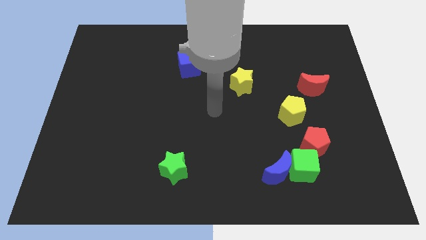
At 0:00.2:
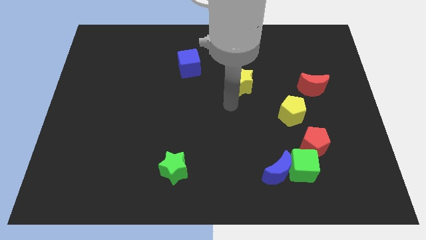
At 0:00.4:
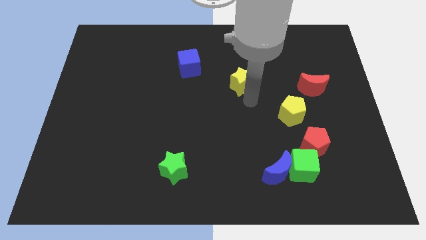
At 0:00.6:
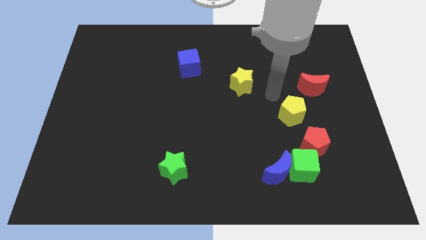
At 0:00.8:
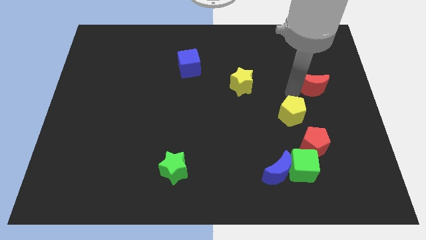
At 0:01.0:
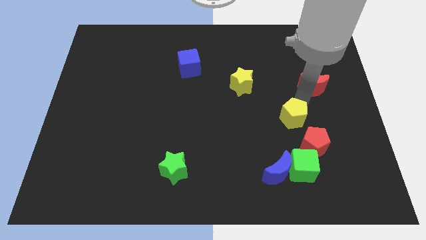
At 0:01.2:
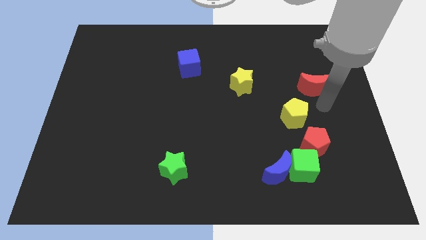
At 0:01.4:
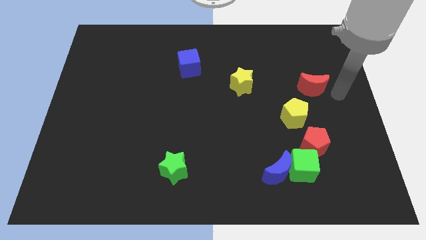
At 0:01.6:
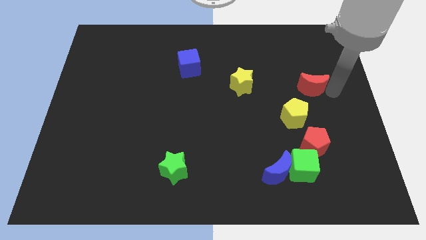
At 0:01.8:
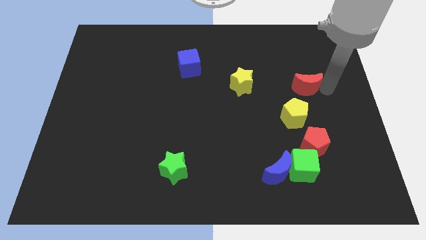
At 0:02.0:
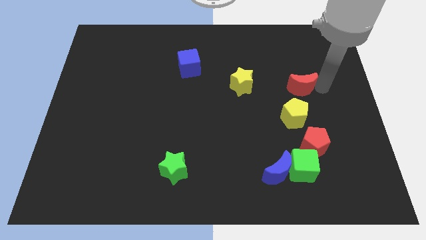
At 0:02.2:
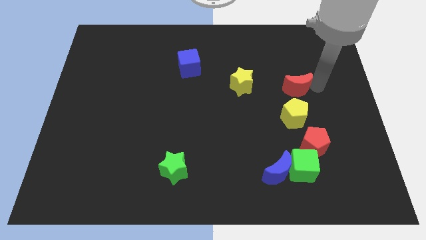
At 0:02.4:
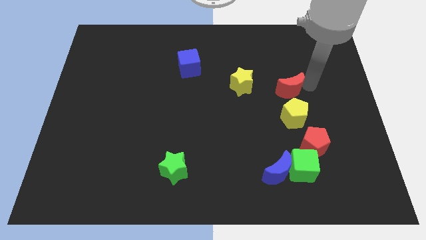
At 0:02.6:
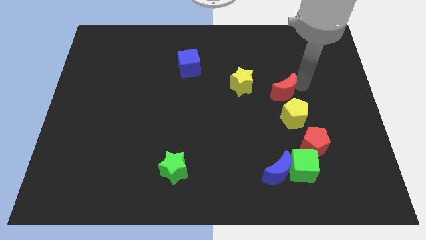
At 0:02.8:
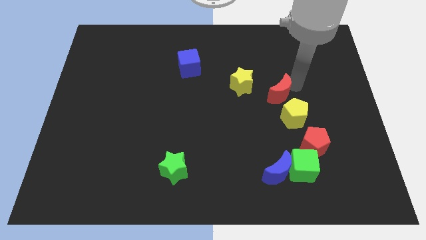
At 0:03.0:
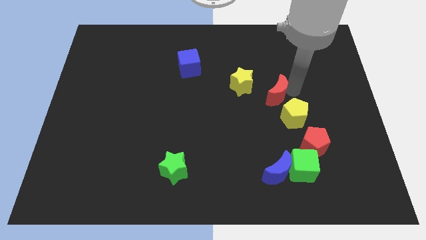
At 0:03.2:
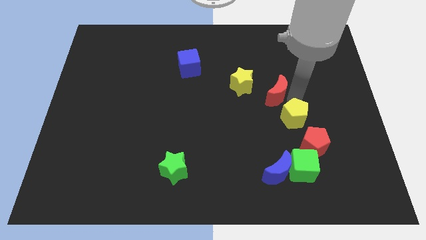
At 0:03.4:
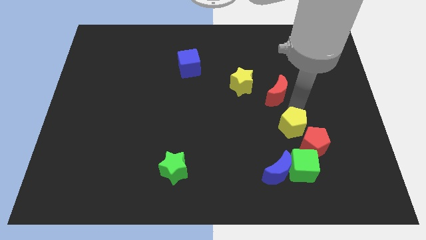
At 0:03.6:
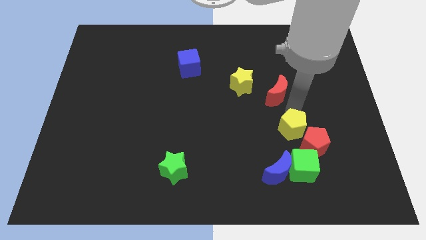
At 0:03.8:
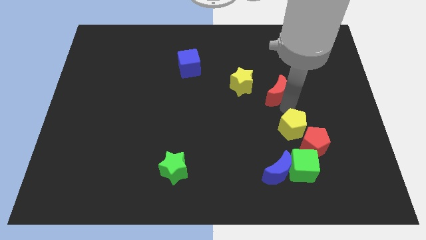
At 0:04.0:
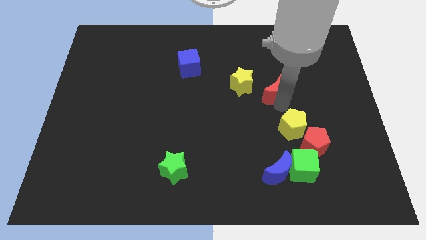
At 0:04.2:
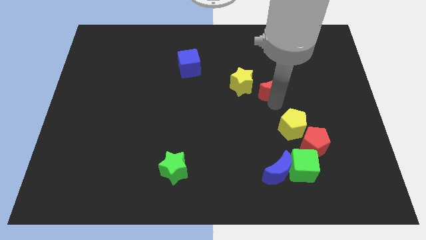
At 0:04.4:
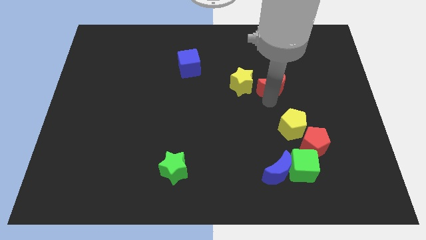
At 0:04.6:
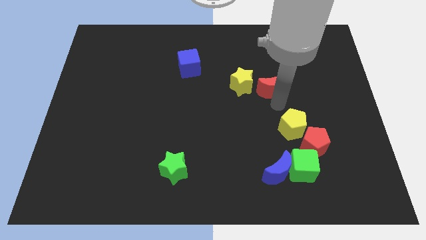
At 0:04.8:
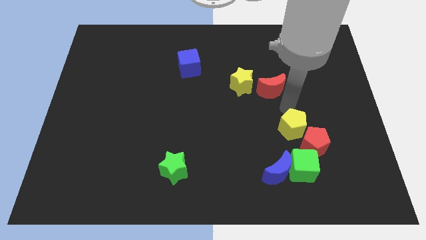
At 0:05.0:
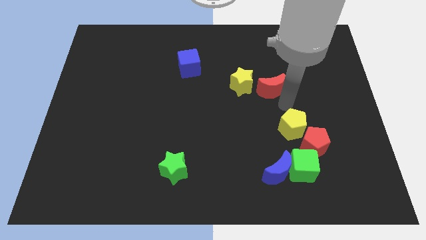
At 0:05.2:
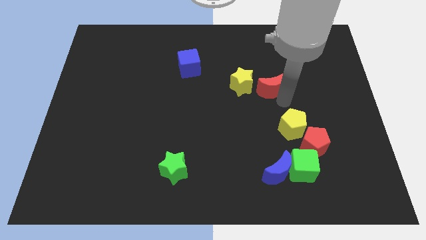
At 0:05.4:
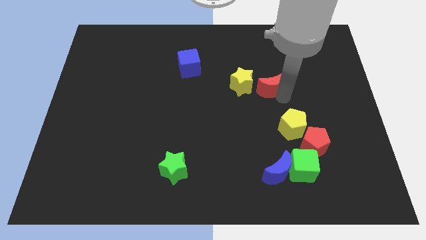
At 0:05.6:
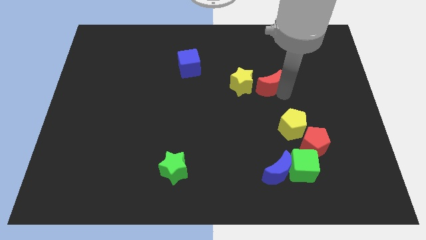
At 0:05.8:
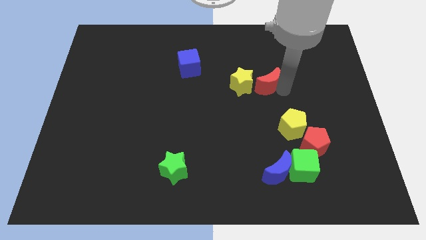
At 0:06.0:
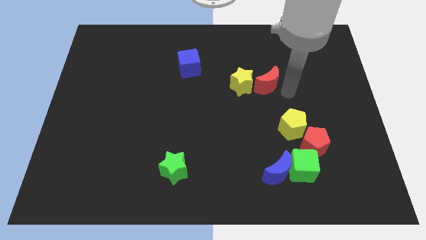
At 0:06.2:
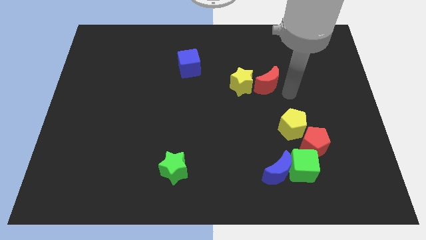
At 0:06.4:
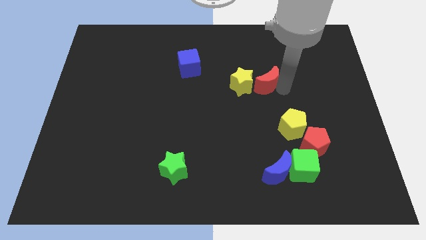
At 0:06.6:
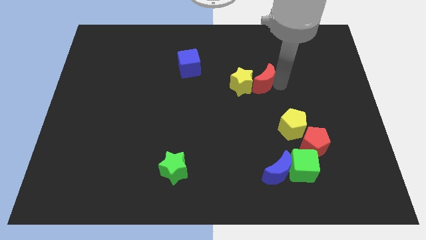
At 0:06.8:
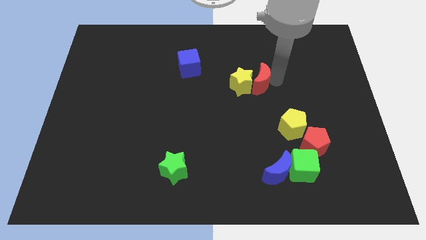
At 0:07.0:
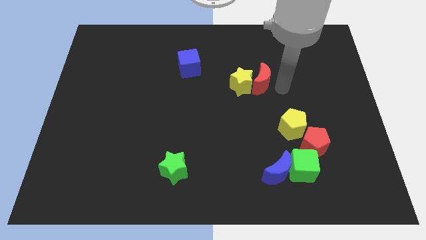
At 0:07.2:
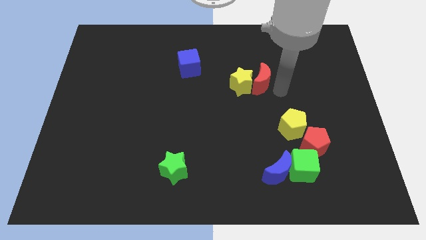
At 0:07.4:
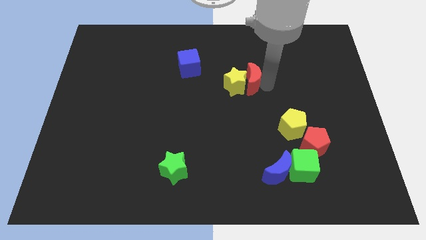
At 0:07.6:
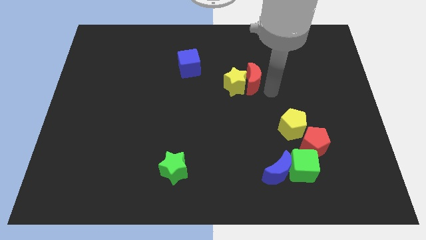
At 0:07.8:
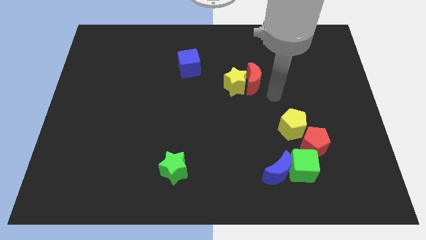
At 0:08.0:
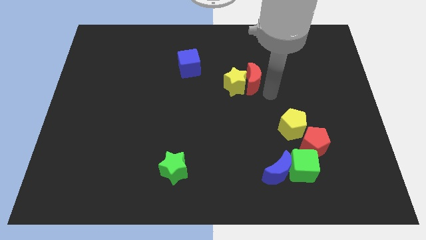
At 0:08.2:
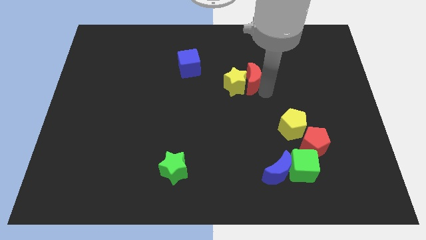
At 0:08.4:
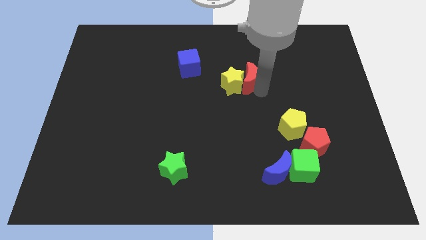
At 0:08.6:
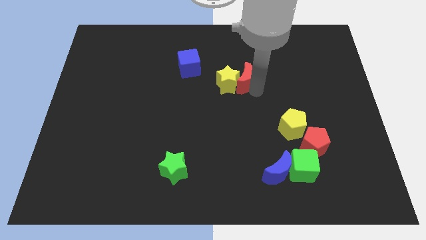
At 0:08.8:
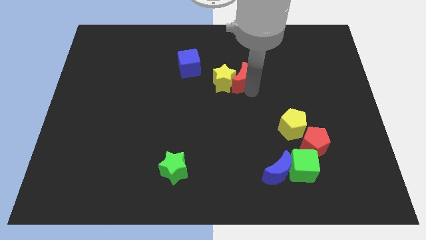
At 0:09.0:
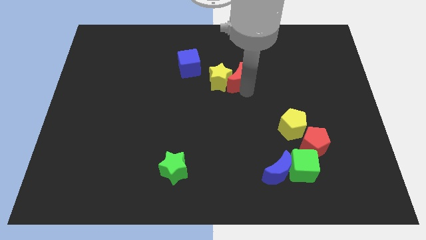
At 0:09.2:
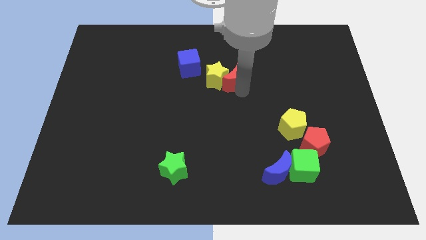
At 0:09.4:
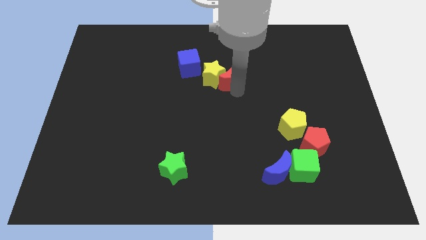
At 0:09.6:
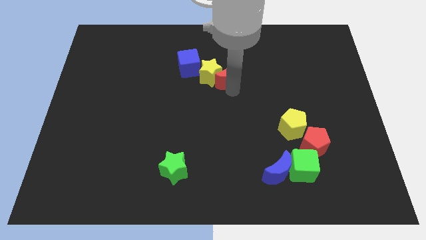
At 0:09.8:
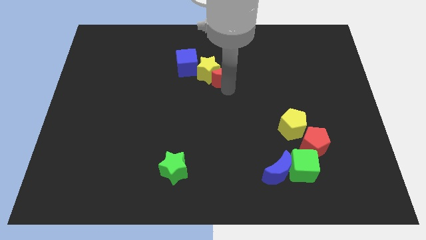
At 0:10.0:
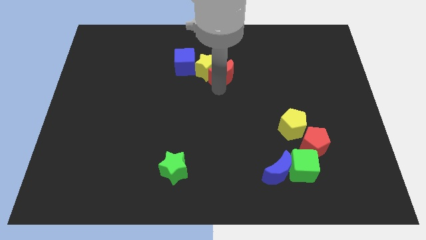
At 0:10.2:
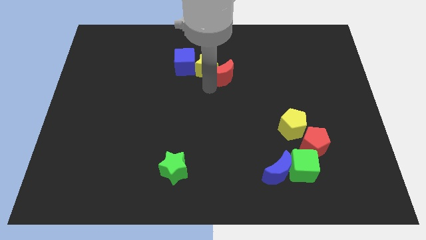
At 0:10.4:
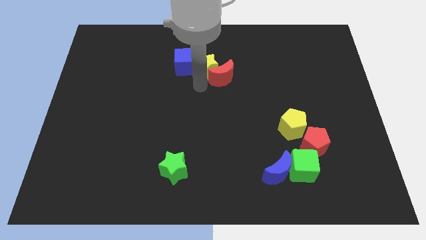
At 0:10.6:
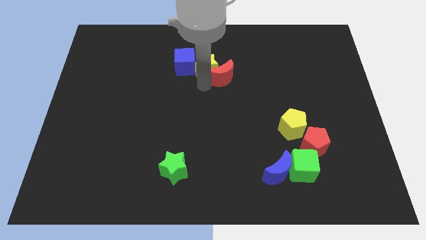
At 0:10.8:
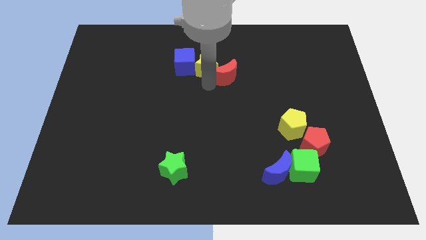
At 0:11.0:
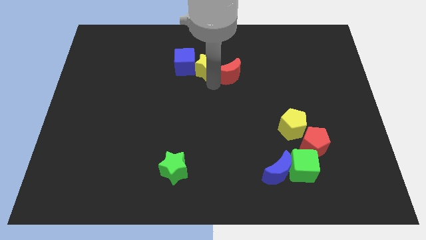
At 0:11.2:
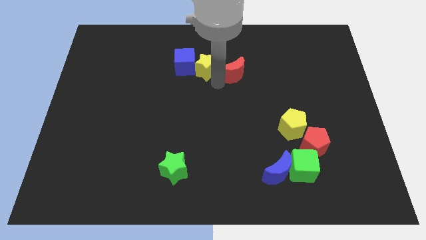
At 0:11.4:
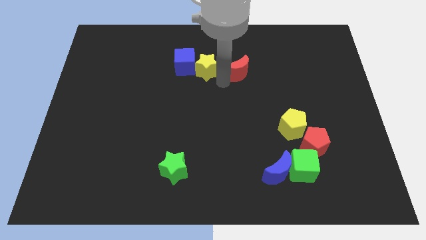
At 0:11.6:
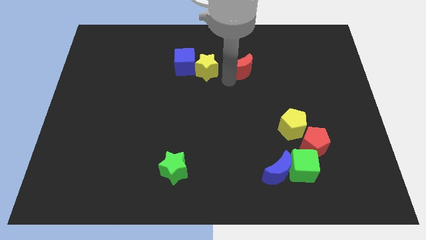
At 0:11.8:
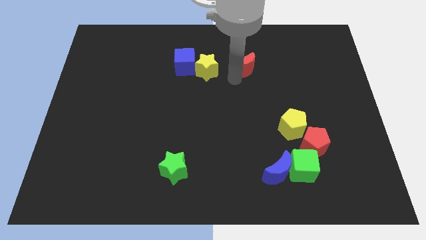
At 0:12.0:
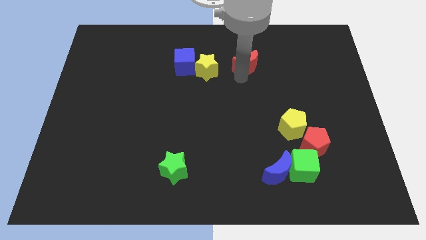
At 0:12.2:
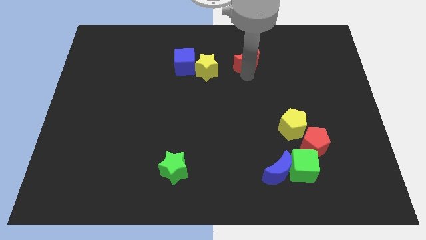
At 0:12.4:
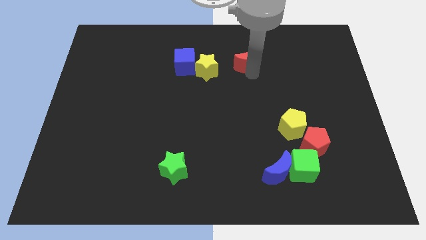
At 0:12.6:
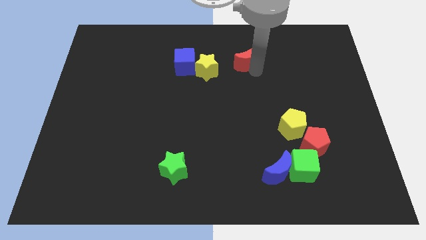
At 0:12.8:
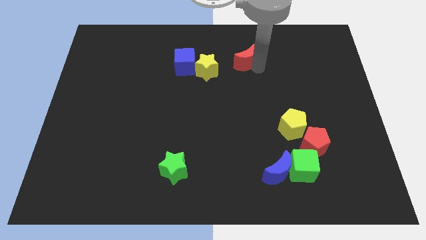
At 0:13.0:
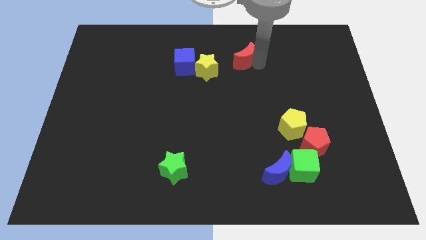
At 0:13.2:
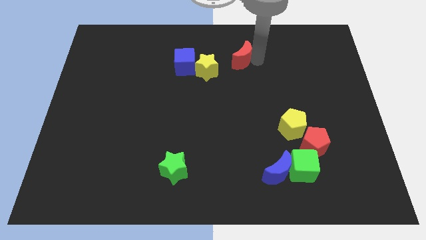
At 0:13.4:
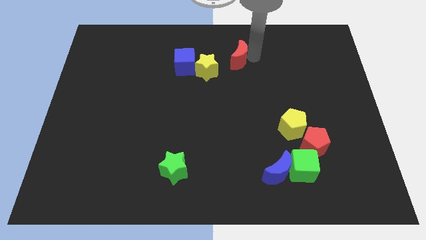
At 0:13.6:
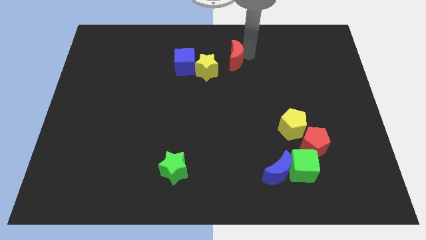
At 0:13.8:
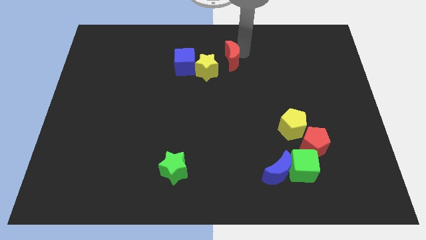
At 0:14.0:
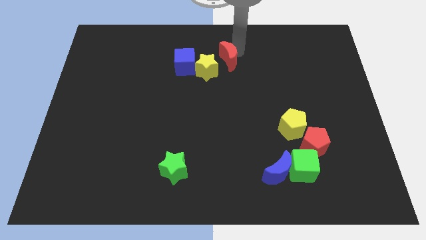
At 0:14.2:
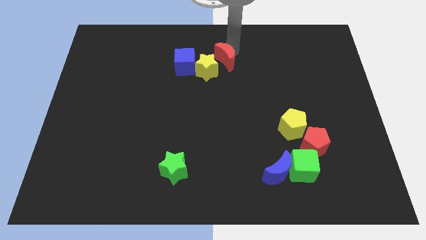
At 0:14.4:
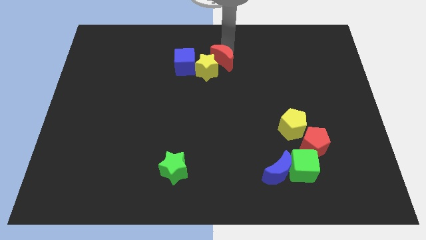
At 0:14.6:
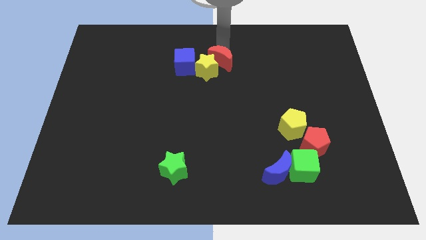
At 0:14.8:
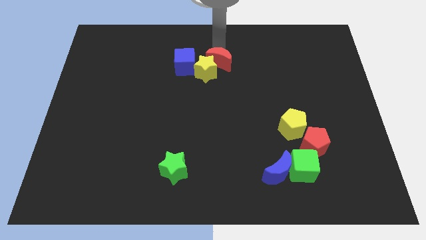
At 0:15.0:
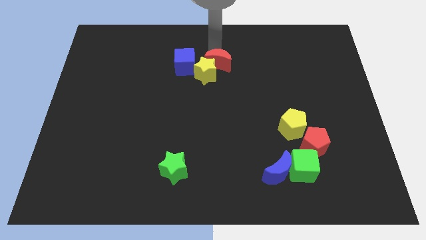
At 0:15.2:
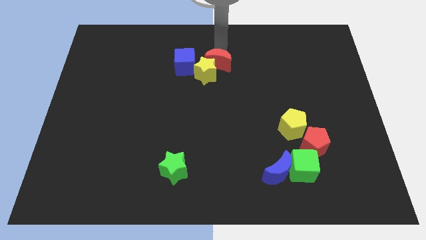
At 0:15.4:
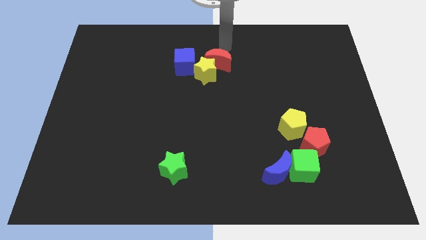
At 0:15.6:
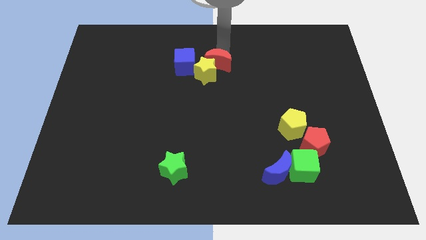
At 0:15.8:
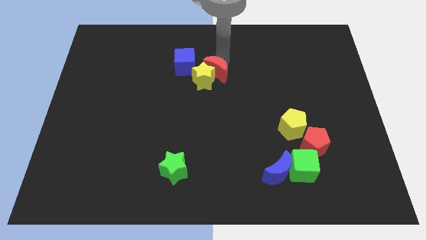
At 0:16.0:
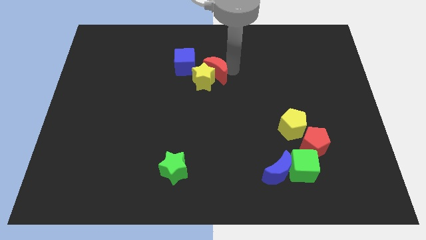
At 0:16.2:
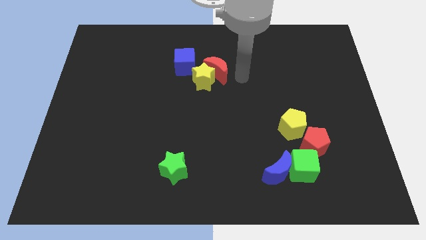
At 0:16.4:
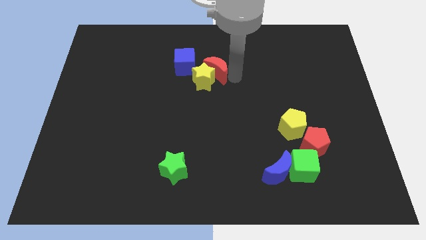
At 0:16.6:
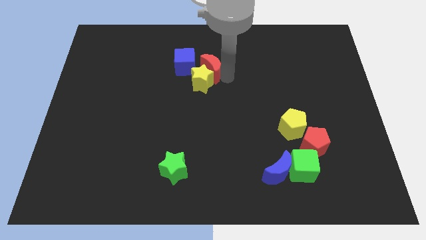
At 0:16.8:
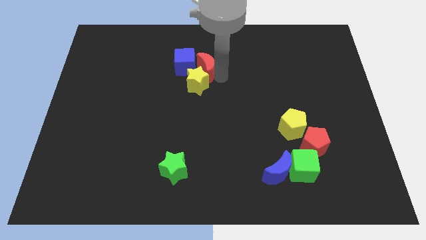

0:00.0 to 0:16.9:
move the red moon next to the blue cube
